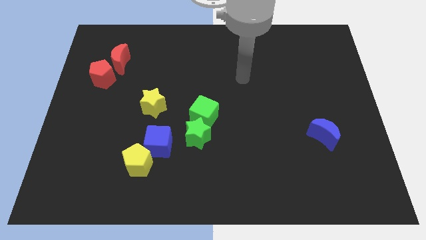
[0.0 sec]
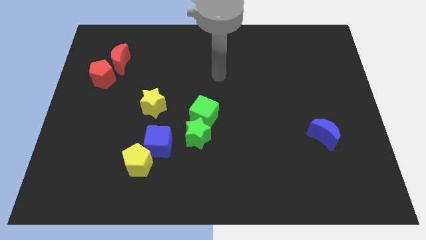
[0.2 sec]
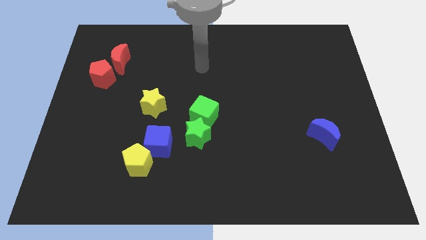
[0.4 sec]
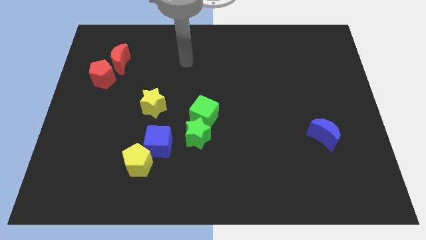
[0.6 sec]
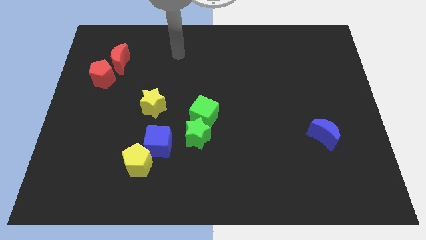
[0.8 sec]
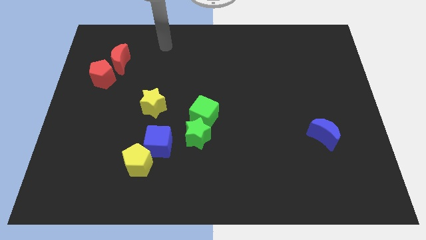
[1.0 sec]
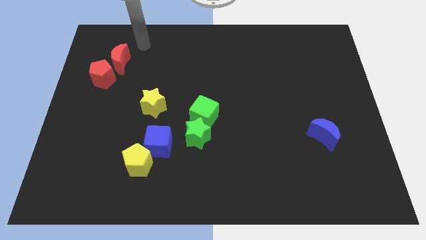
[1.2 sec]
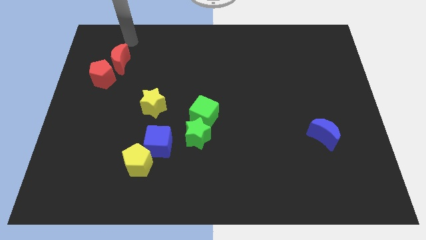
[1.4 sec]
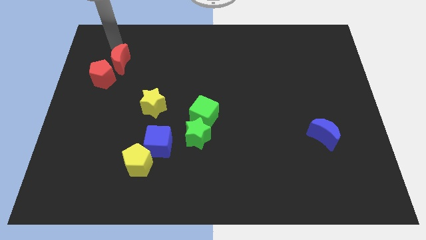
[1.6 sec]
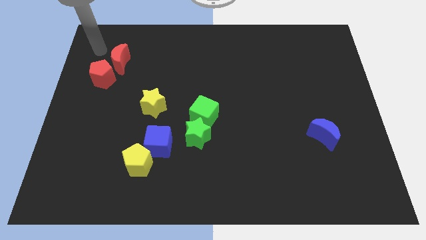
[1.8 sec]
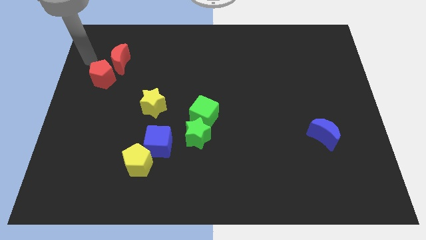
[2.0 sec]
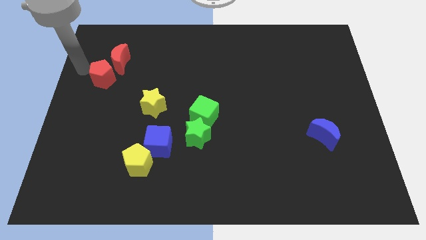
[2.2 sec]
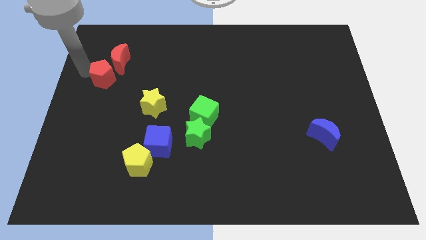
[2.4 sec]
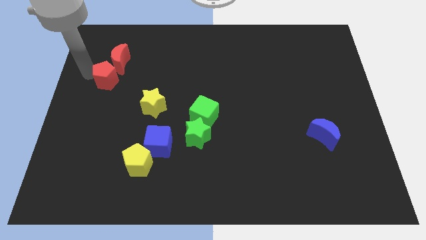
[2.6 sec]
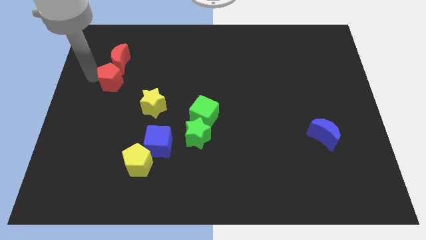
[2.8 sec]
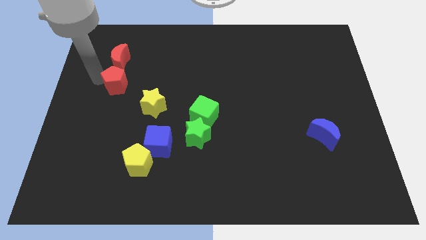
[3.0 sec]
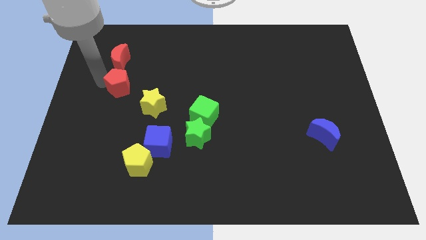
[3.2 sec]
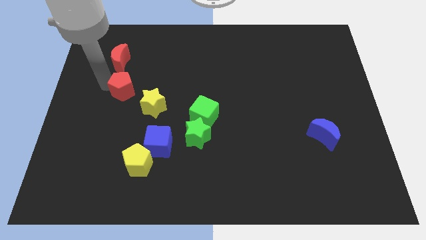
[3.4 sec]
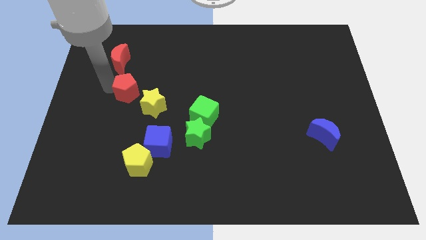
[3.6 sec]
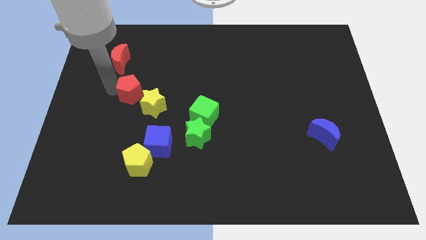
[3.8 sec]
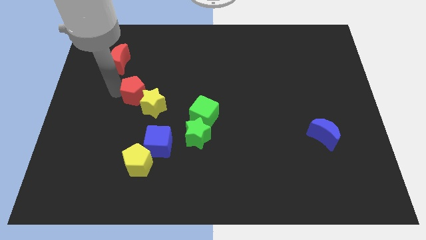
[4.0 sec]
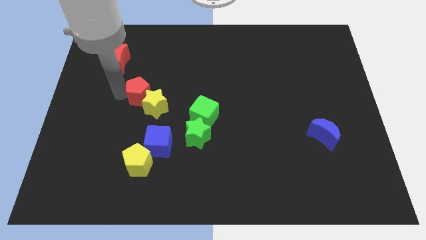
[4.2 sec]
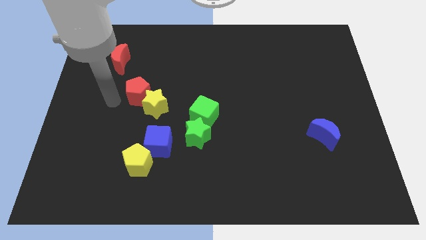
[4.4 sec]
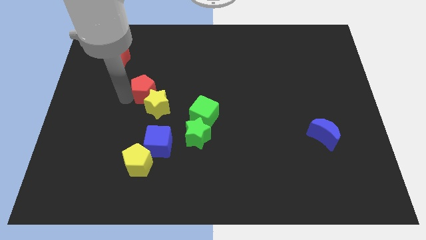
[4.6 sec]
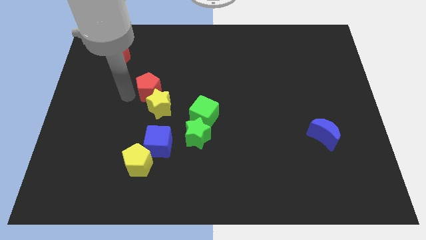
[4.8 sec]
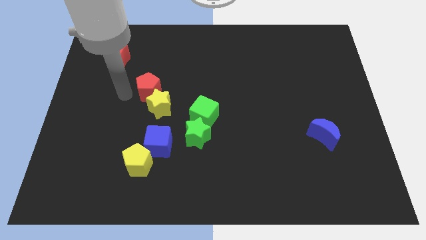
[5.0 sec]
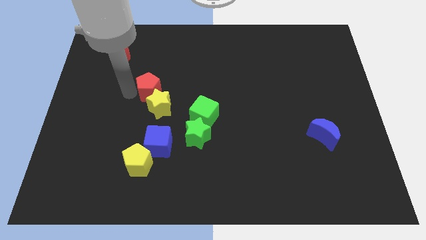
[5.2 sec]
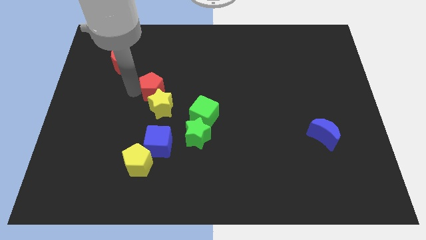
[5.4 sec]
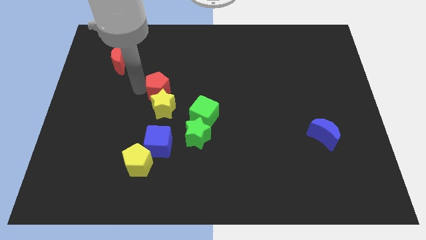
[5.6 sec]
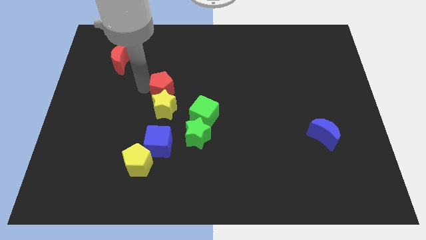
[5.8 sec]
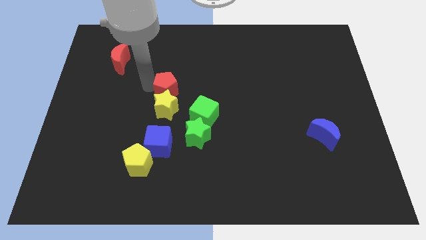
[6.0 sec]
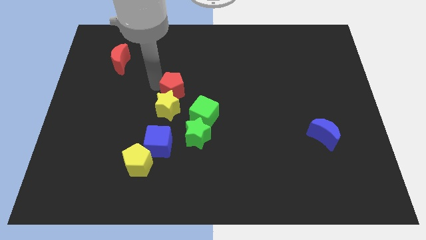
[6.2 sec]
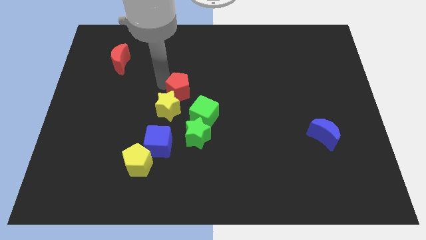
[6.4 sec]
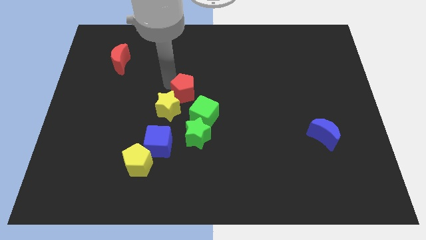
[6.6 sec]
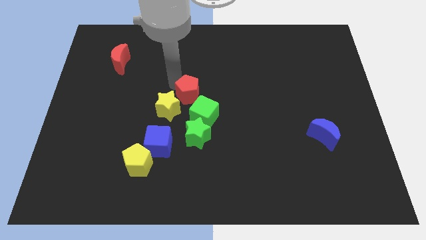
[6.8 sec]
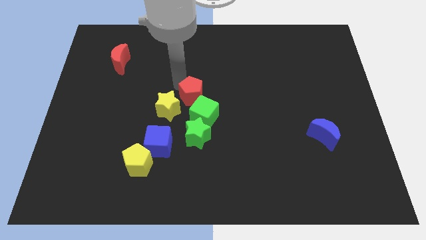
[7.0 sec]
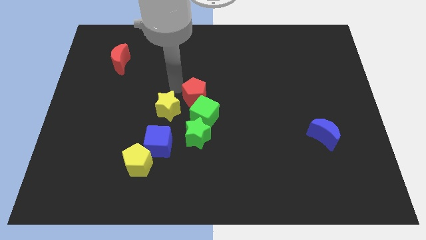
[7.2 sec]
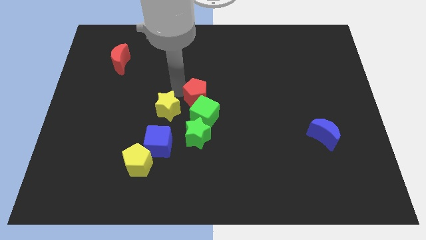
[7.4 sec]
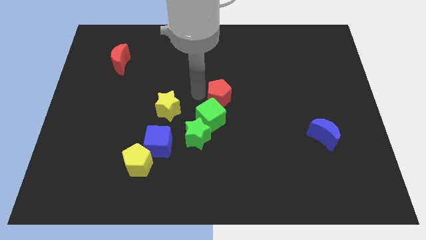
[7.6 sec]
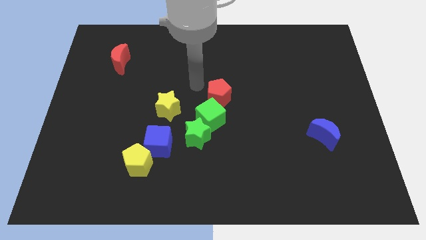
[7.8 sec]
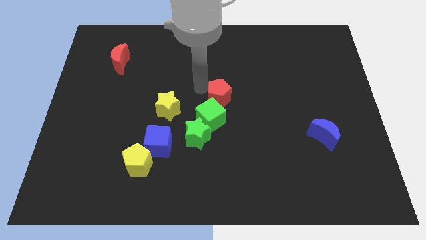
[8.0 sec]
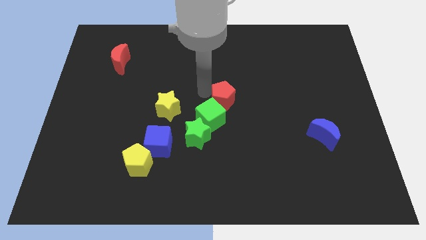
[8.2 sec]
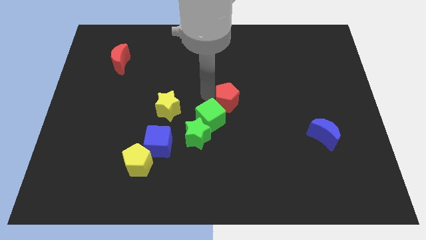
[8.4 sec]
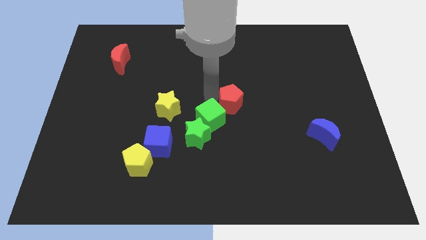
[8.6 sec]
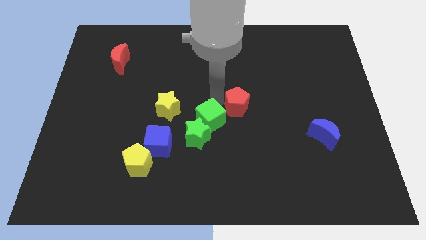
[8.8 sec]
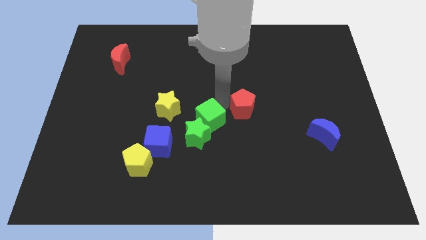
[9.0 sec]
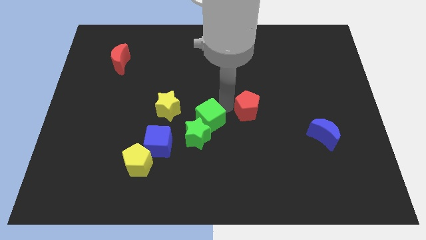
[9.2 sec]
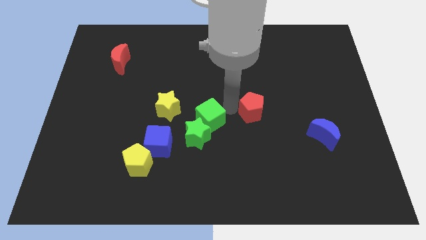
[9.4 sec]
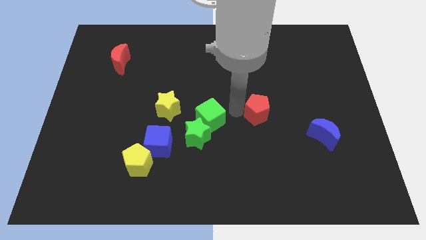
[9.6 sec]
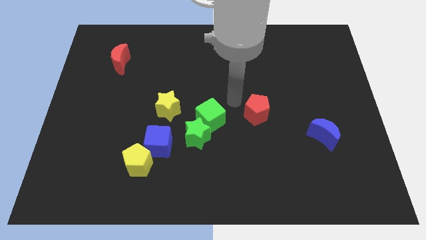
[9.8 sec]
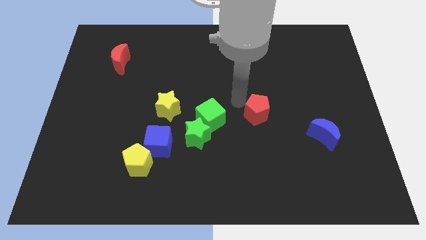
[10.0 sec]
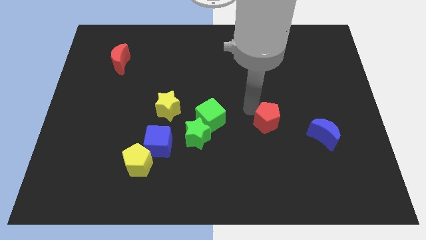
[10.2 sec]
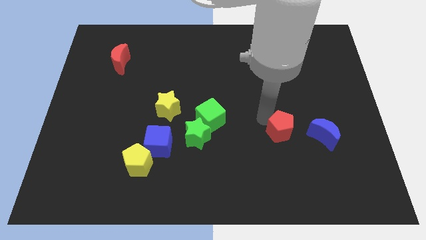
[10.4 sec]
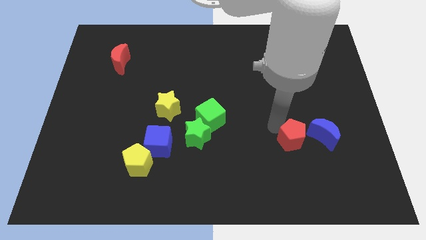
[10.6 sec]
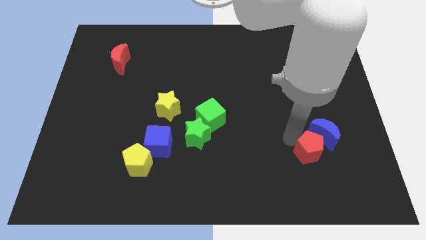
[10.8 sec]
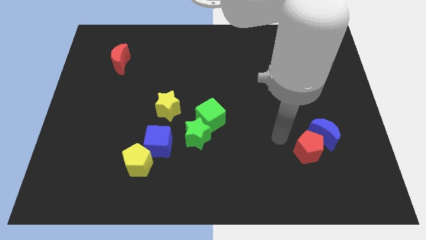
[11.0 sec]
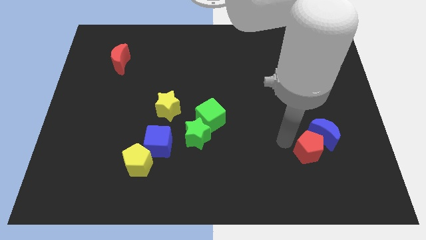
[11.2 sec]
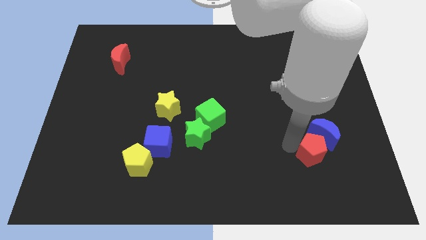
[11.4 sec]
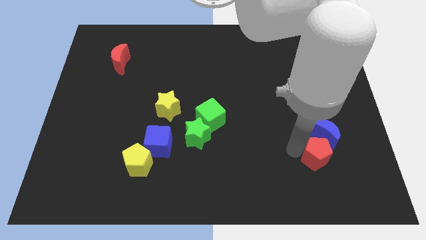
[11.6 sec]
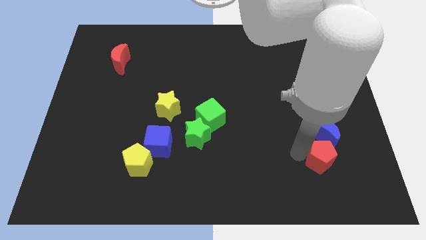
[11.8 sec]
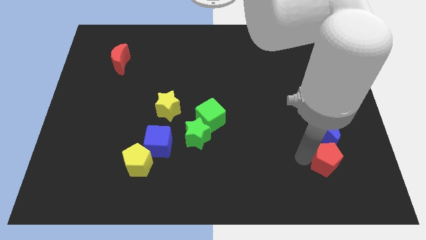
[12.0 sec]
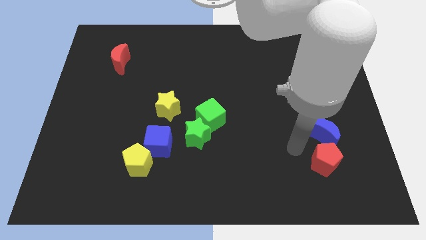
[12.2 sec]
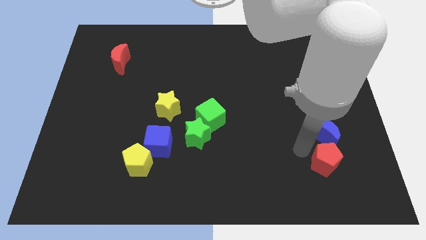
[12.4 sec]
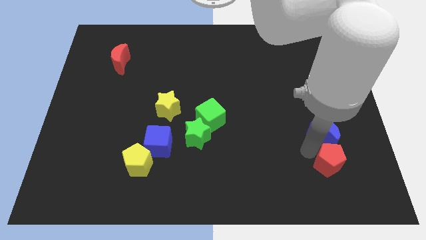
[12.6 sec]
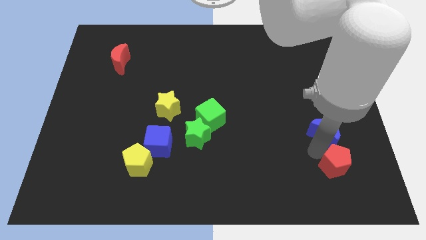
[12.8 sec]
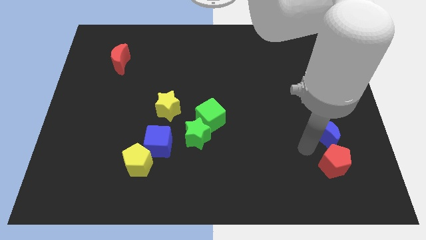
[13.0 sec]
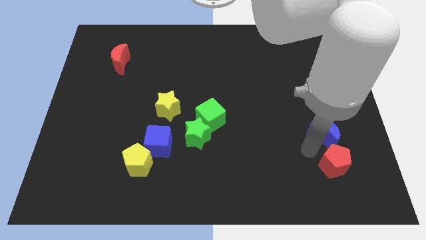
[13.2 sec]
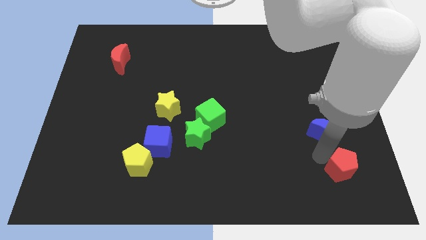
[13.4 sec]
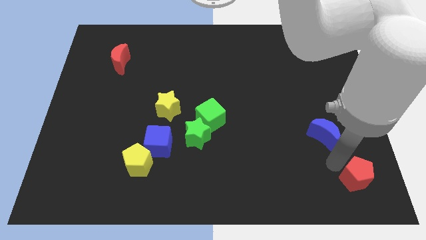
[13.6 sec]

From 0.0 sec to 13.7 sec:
push the red pentagon to the bottom right corner
